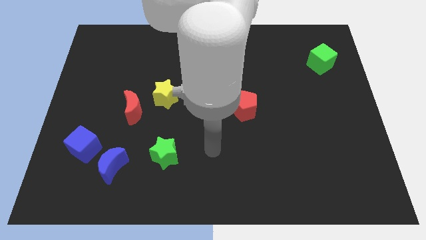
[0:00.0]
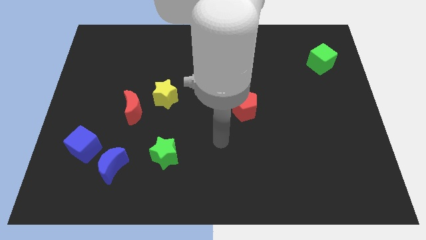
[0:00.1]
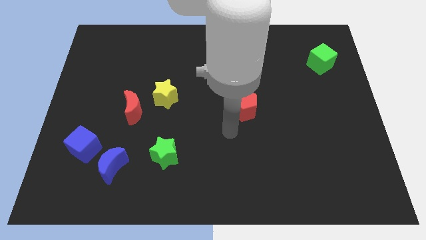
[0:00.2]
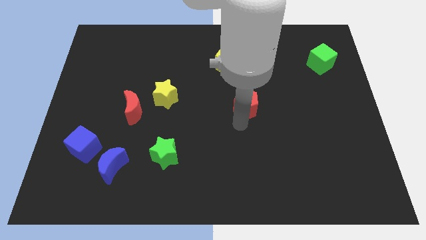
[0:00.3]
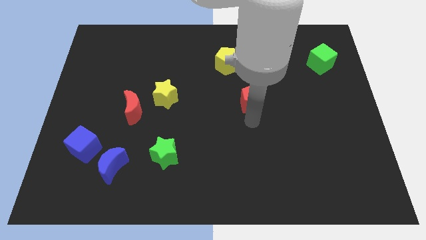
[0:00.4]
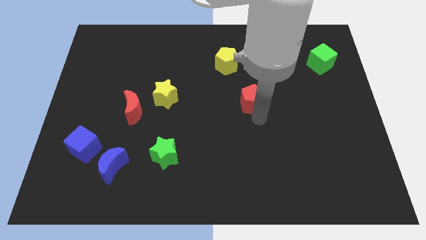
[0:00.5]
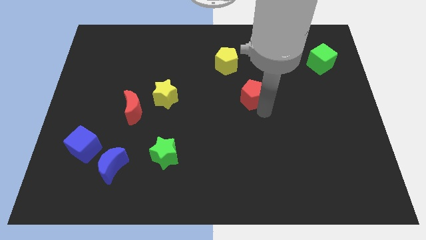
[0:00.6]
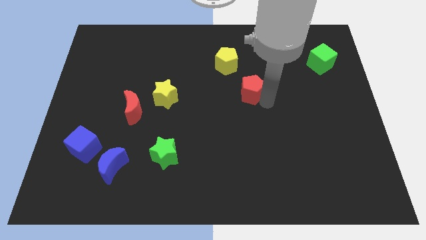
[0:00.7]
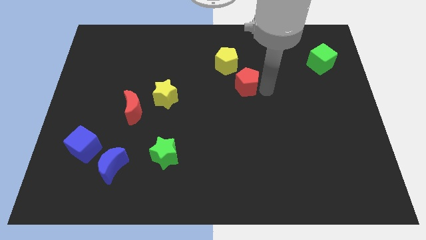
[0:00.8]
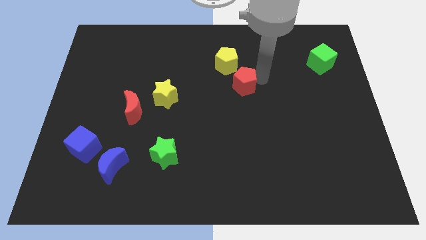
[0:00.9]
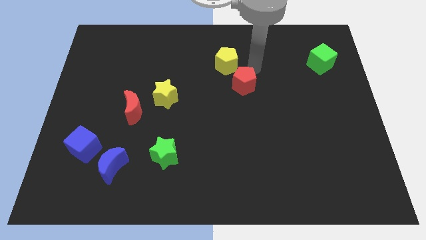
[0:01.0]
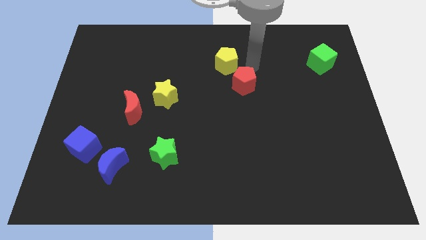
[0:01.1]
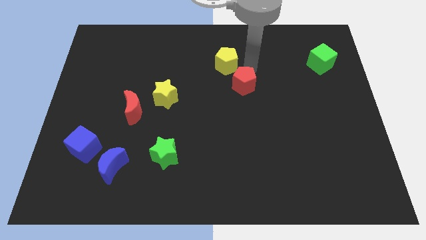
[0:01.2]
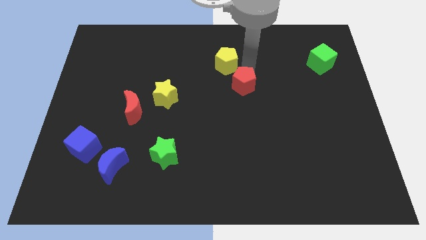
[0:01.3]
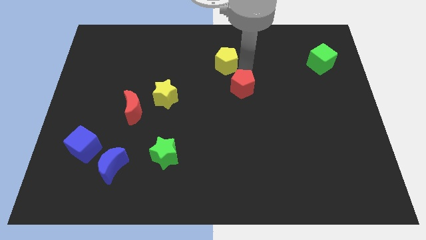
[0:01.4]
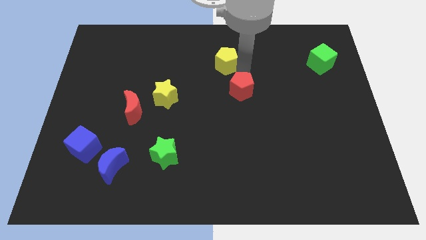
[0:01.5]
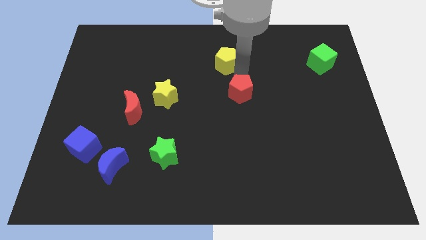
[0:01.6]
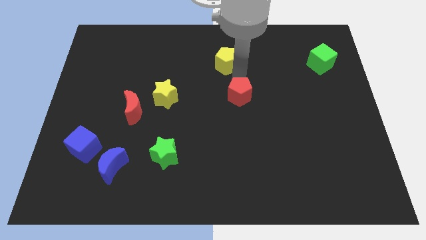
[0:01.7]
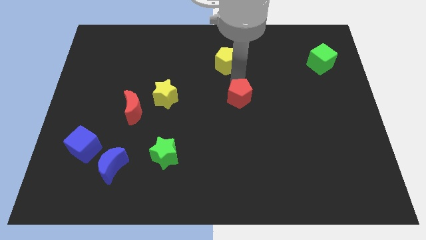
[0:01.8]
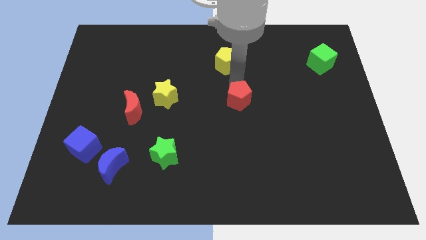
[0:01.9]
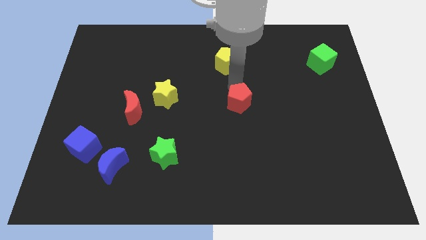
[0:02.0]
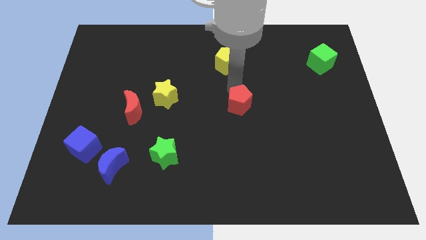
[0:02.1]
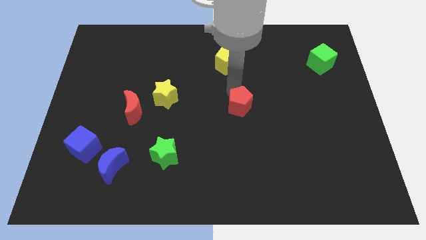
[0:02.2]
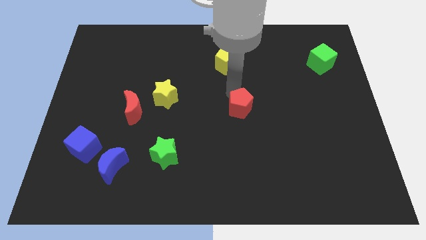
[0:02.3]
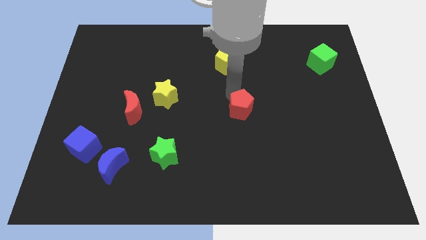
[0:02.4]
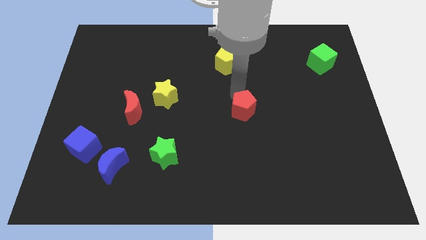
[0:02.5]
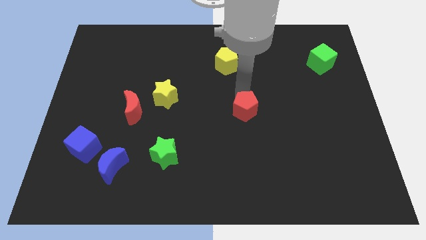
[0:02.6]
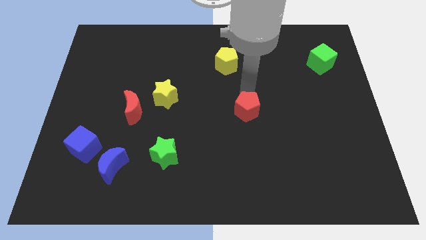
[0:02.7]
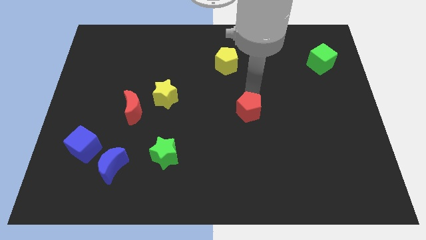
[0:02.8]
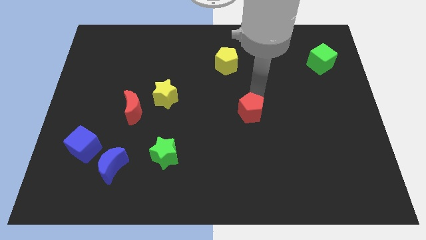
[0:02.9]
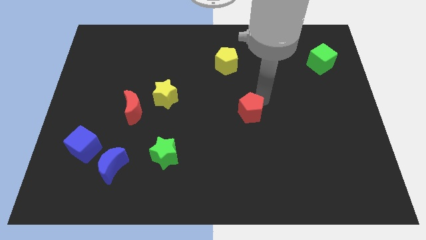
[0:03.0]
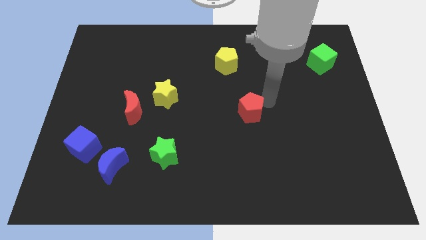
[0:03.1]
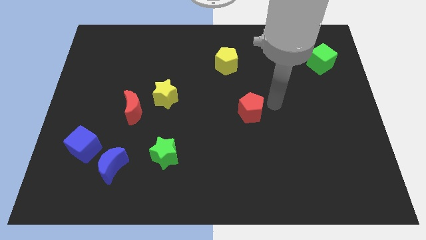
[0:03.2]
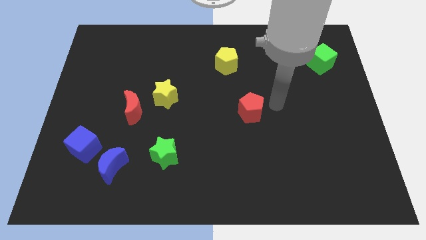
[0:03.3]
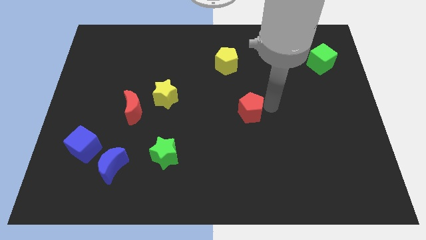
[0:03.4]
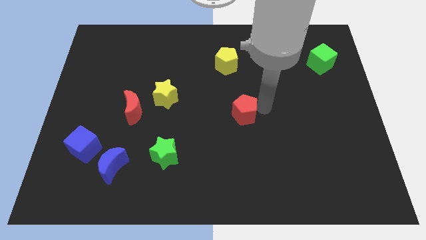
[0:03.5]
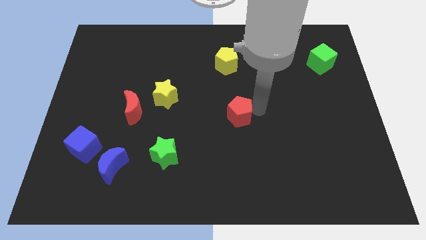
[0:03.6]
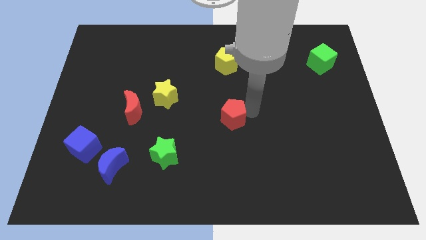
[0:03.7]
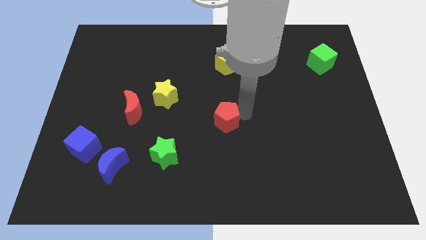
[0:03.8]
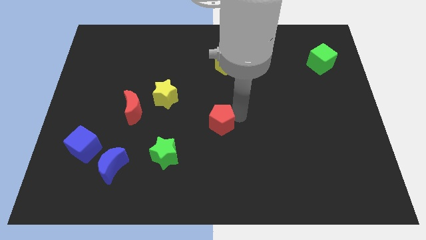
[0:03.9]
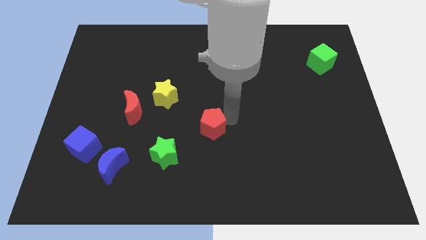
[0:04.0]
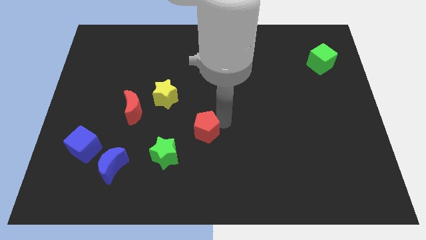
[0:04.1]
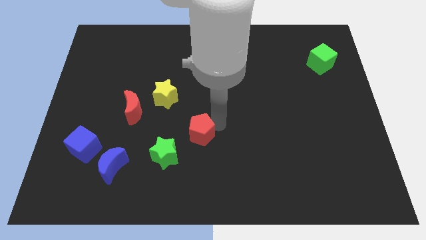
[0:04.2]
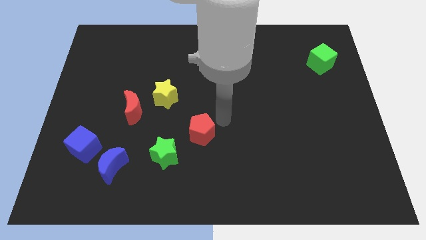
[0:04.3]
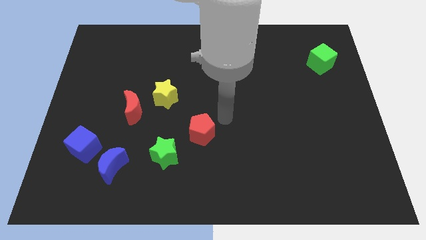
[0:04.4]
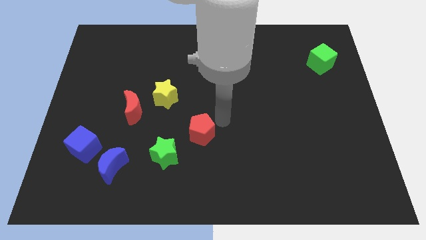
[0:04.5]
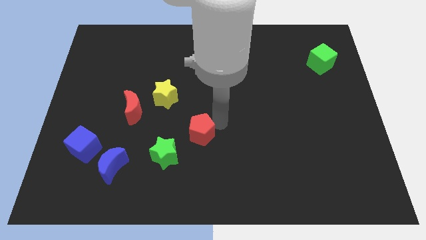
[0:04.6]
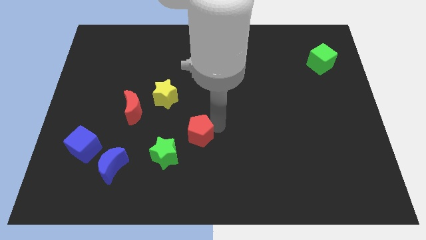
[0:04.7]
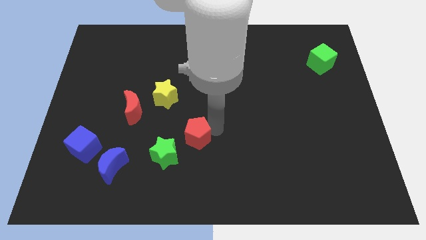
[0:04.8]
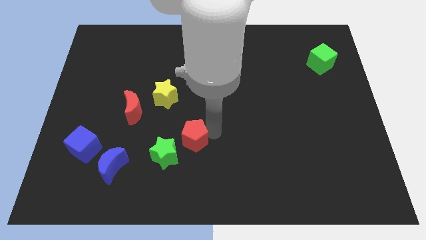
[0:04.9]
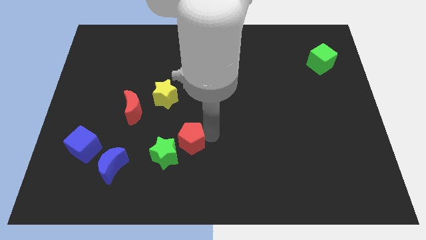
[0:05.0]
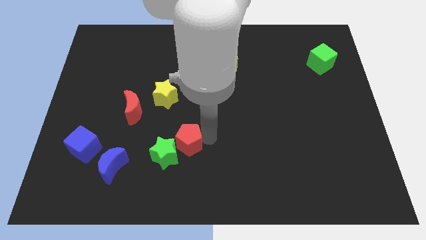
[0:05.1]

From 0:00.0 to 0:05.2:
push the red pentagon to the green star

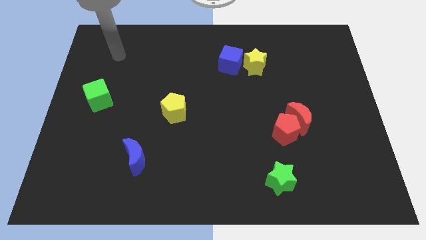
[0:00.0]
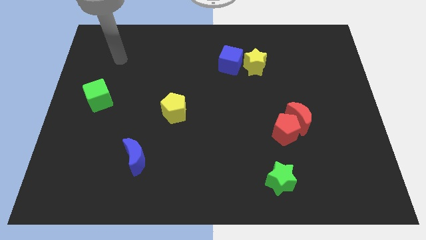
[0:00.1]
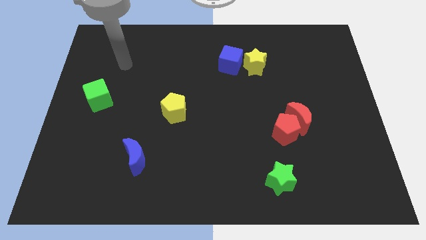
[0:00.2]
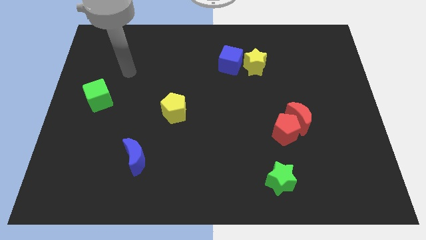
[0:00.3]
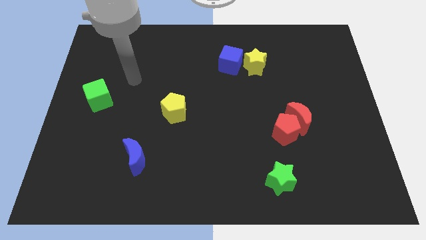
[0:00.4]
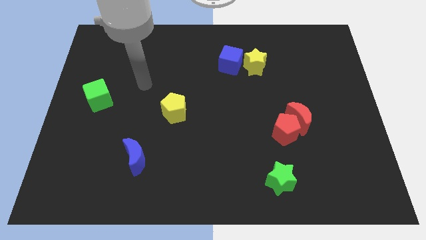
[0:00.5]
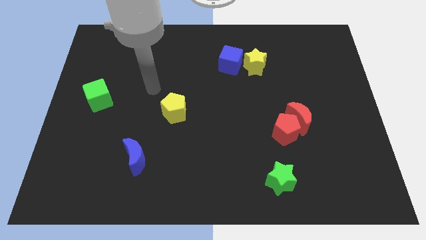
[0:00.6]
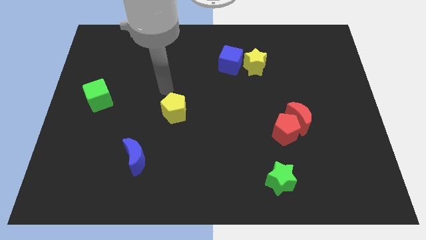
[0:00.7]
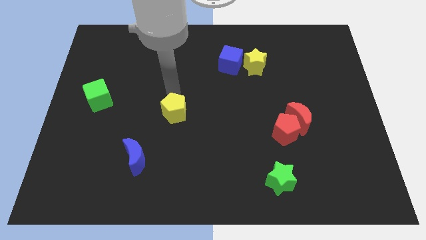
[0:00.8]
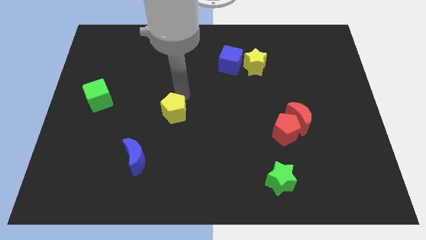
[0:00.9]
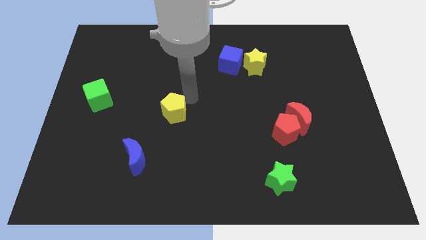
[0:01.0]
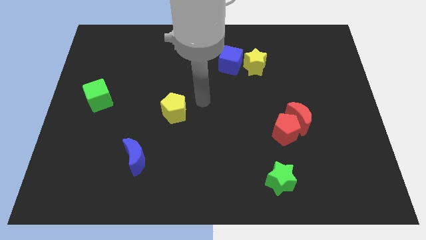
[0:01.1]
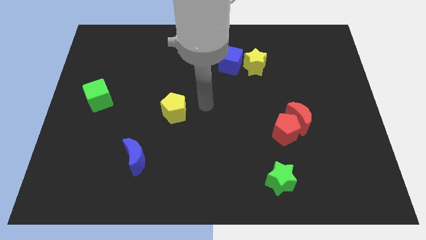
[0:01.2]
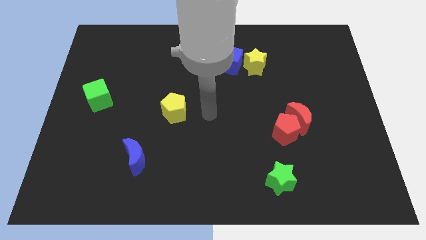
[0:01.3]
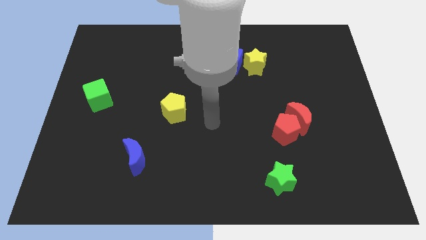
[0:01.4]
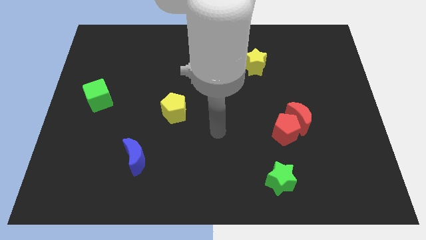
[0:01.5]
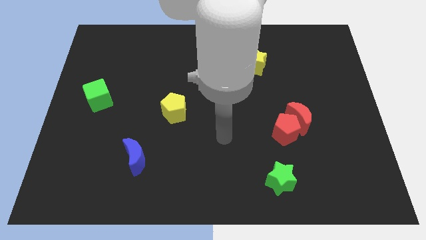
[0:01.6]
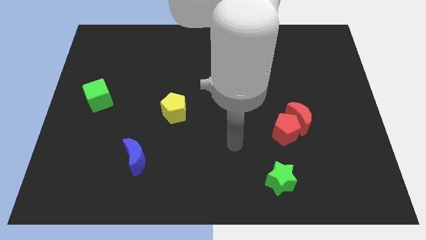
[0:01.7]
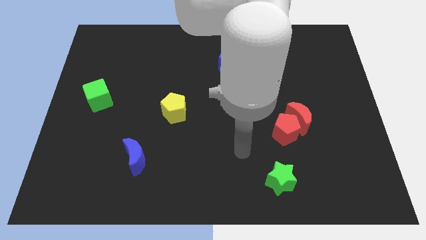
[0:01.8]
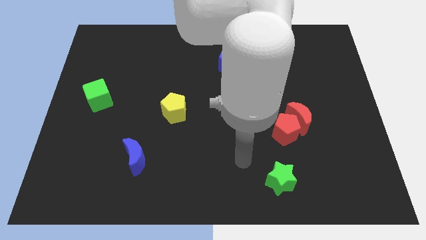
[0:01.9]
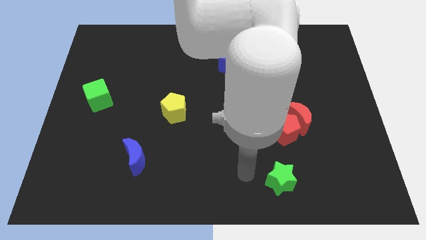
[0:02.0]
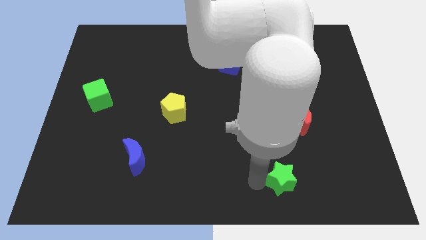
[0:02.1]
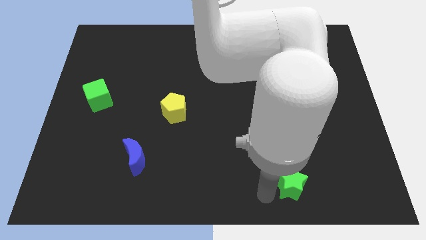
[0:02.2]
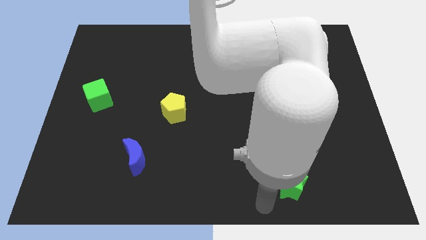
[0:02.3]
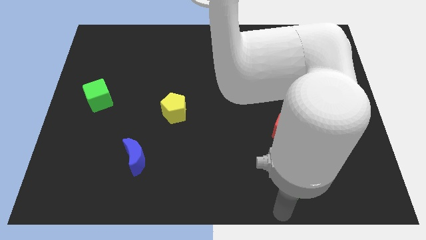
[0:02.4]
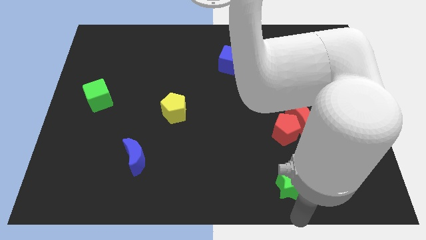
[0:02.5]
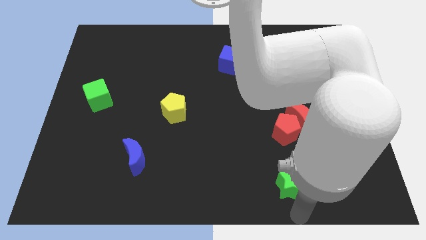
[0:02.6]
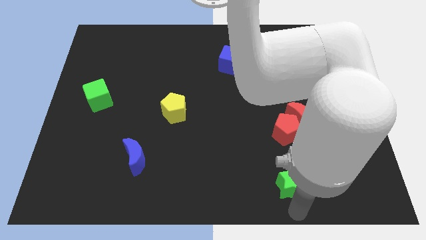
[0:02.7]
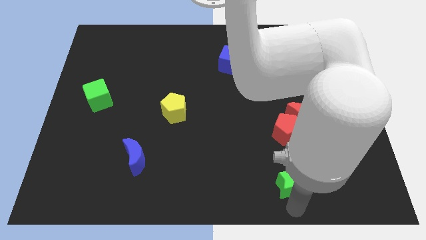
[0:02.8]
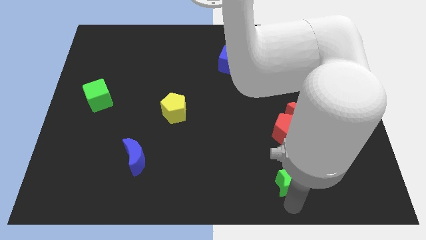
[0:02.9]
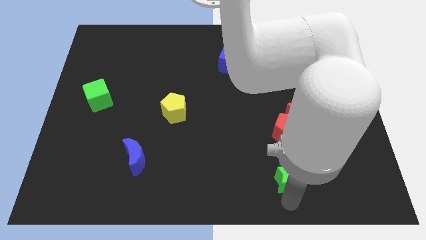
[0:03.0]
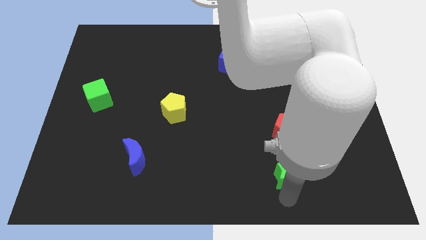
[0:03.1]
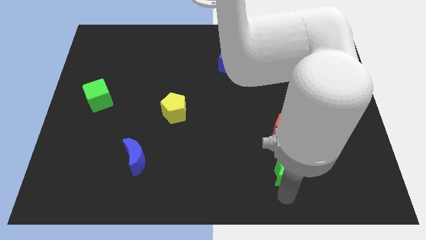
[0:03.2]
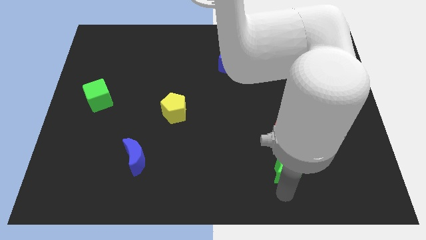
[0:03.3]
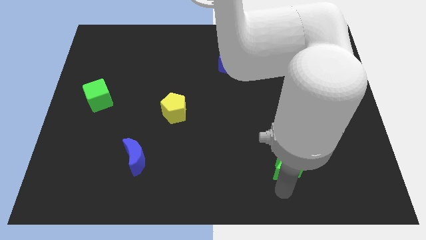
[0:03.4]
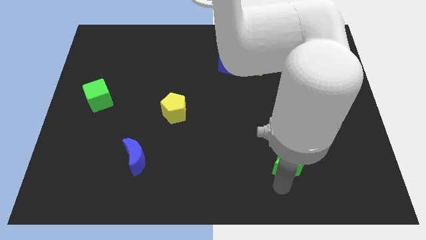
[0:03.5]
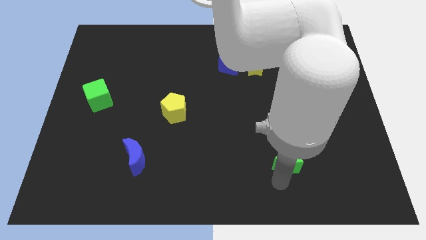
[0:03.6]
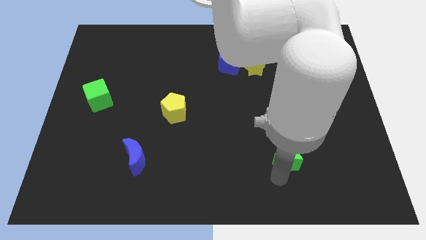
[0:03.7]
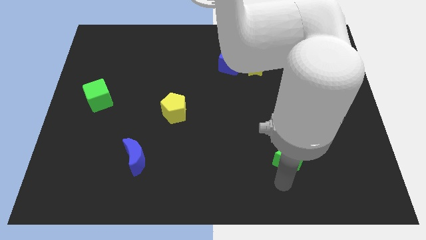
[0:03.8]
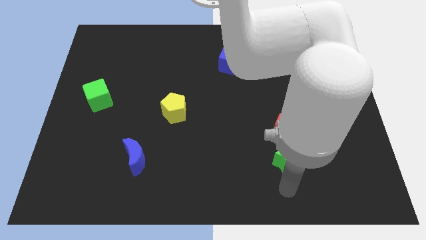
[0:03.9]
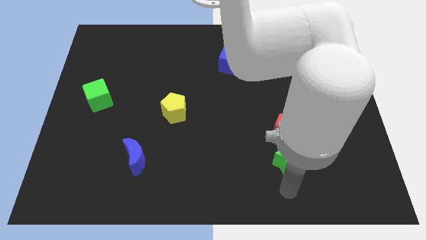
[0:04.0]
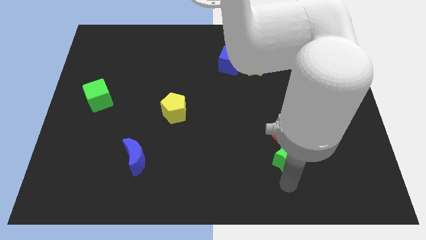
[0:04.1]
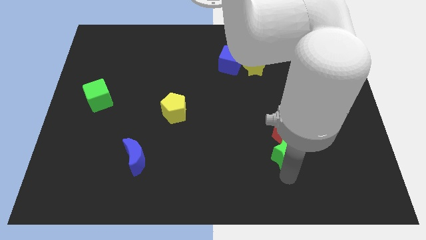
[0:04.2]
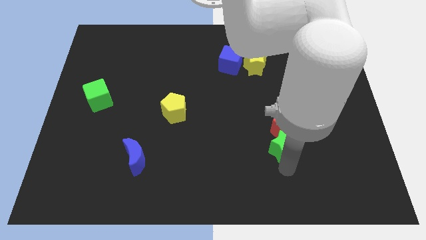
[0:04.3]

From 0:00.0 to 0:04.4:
slide the green star close to the red pentagon
